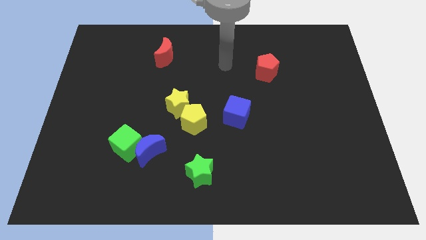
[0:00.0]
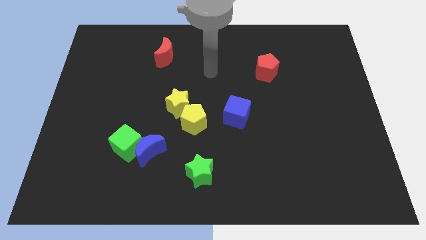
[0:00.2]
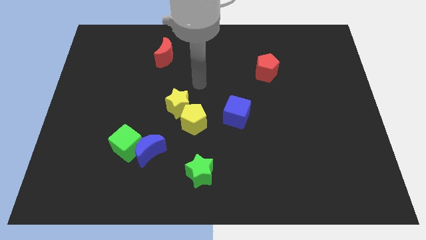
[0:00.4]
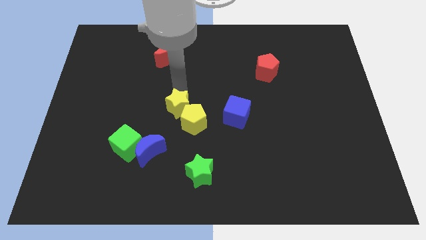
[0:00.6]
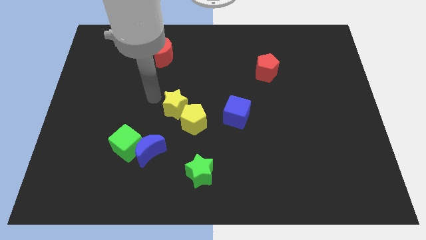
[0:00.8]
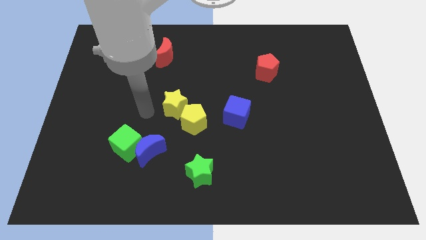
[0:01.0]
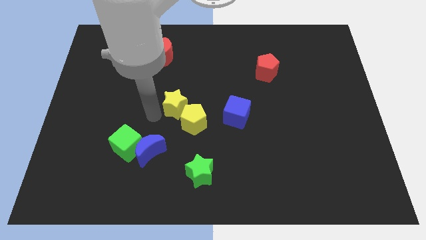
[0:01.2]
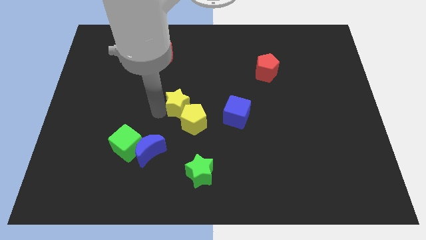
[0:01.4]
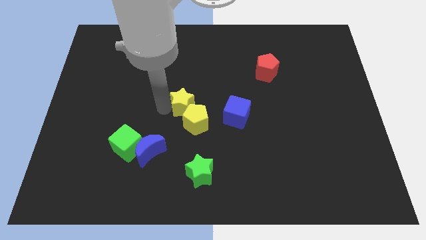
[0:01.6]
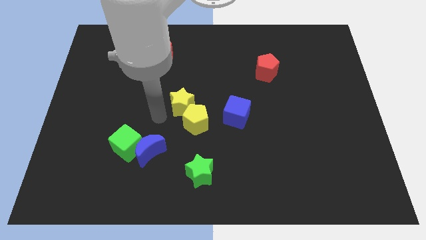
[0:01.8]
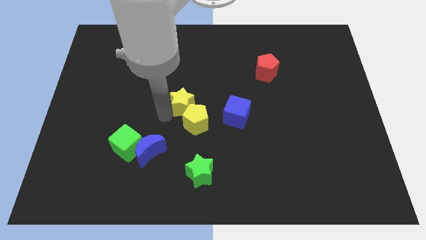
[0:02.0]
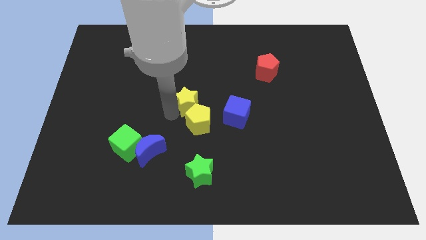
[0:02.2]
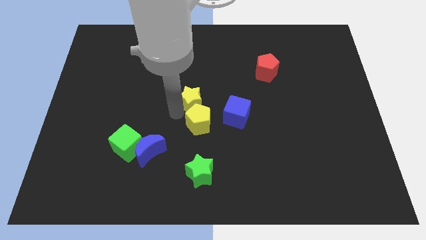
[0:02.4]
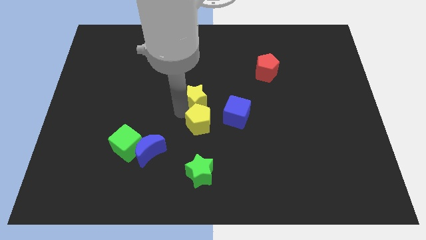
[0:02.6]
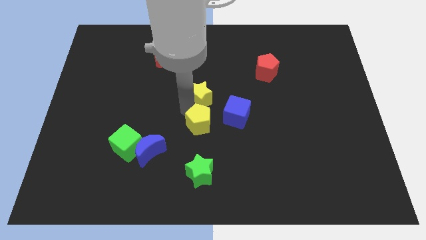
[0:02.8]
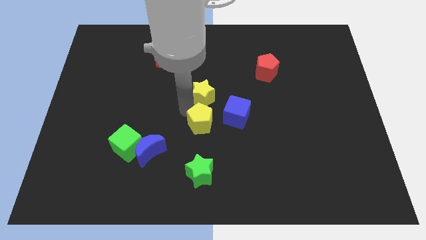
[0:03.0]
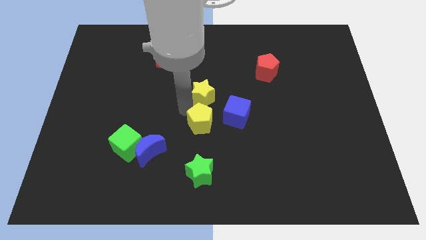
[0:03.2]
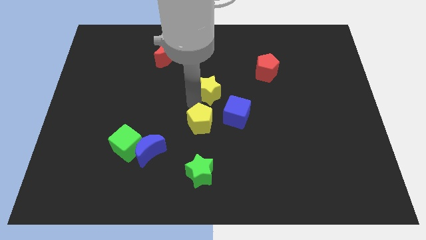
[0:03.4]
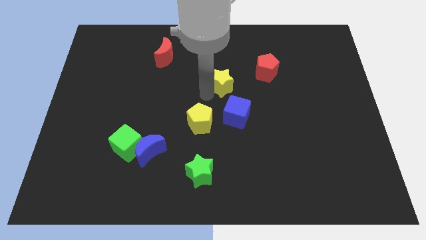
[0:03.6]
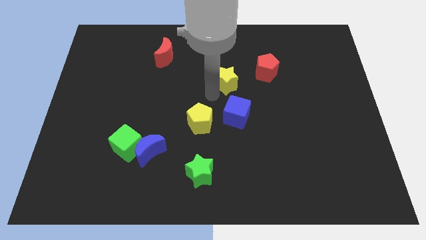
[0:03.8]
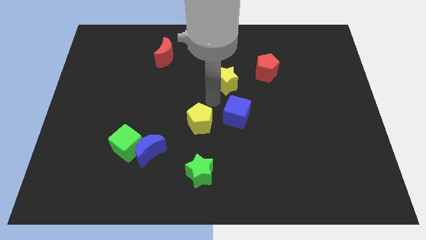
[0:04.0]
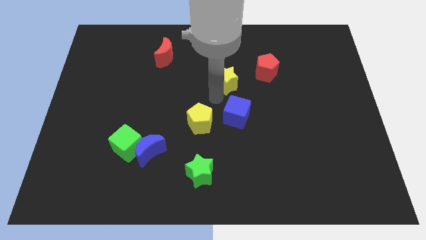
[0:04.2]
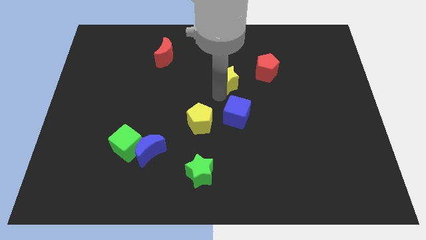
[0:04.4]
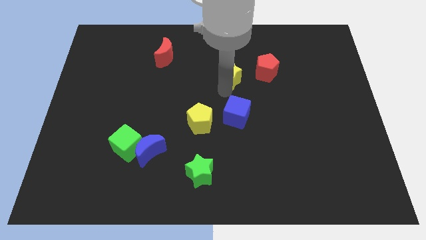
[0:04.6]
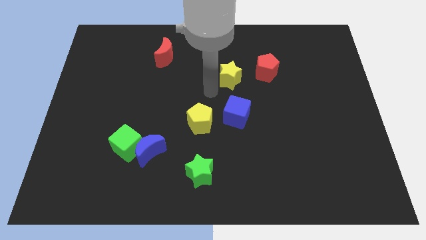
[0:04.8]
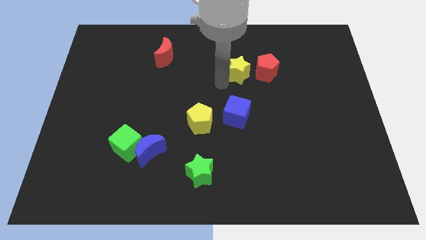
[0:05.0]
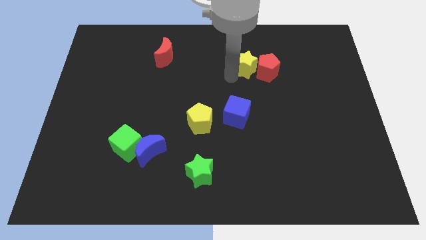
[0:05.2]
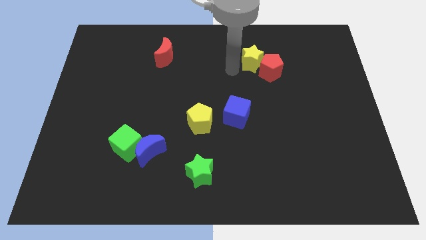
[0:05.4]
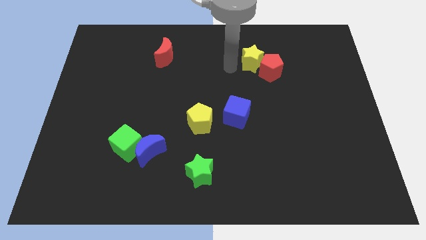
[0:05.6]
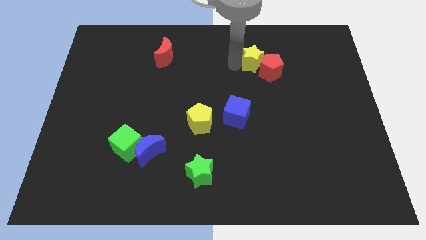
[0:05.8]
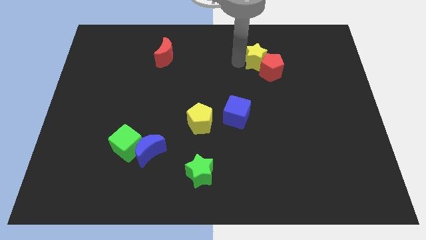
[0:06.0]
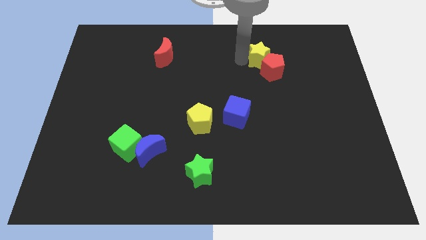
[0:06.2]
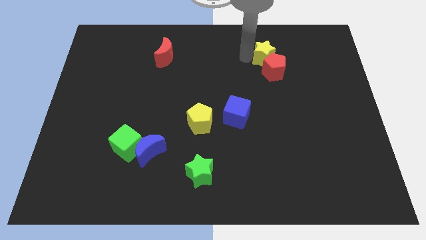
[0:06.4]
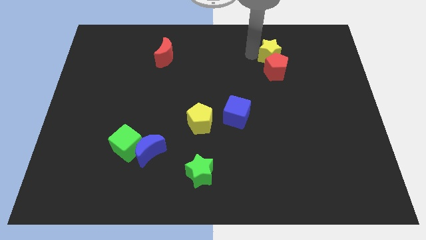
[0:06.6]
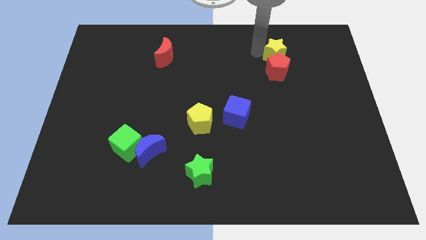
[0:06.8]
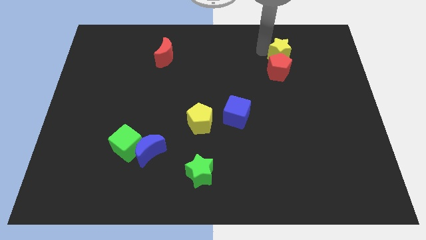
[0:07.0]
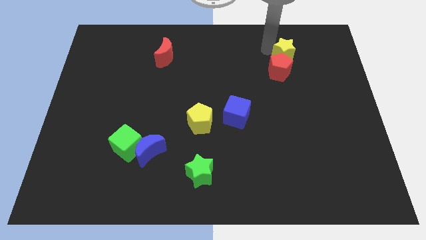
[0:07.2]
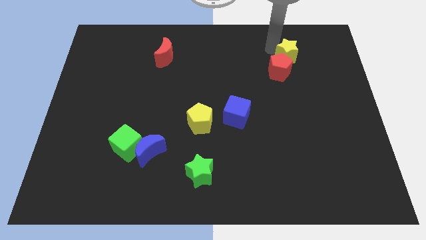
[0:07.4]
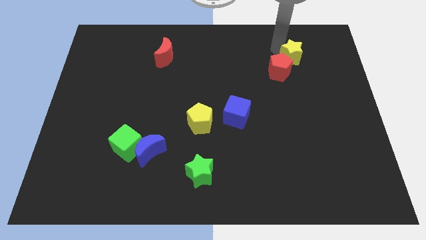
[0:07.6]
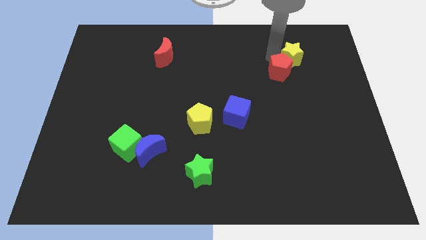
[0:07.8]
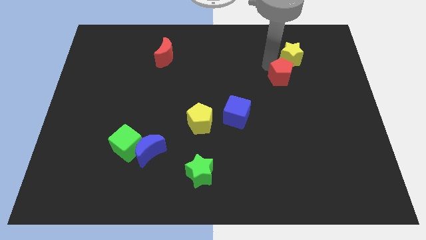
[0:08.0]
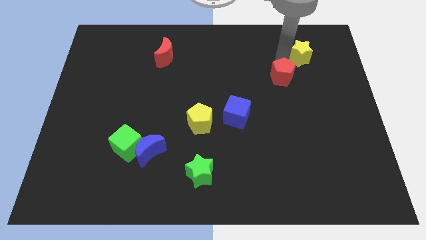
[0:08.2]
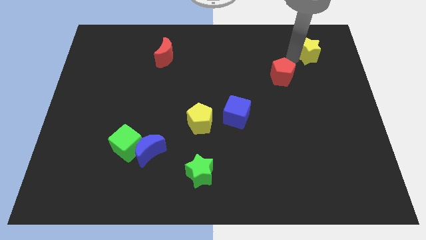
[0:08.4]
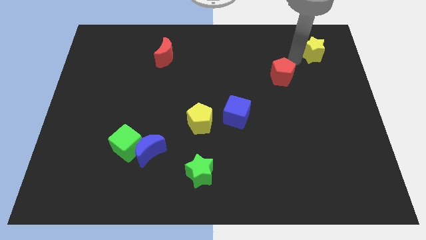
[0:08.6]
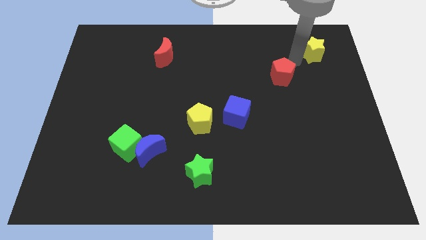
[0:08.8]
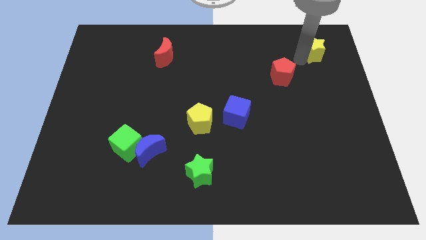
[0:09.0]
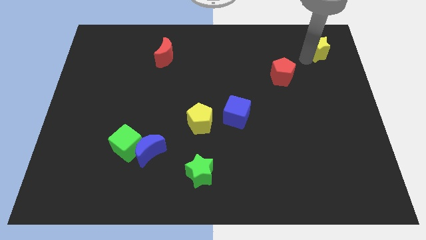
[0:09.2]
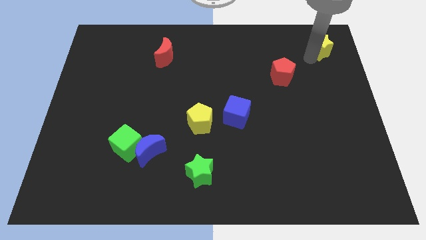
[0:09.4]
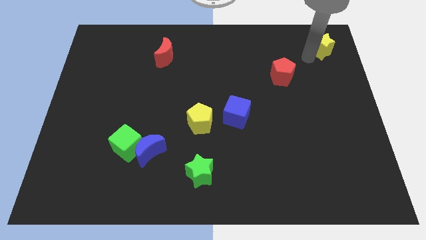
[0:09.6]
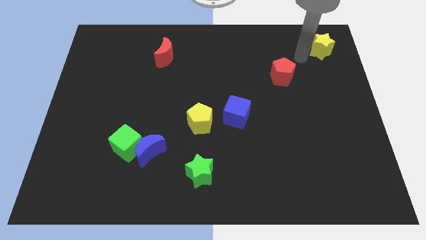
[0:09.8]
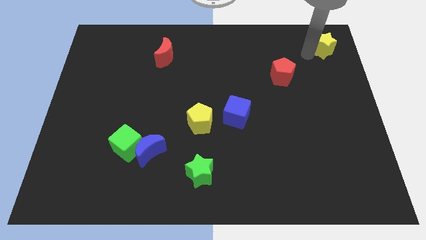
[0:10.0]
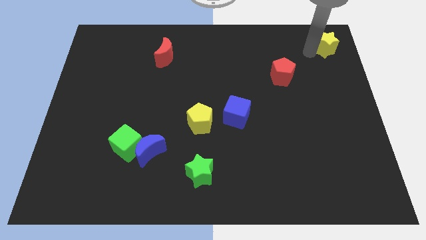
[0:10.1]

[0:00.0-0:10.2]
put the yellow star to the top right corner

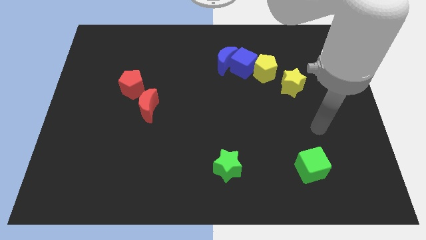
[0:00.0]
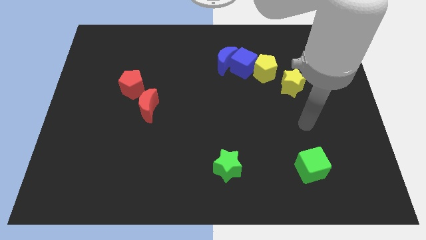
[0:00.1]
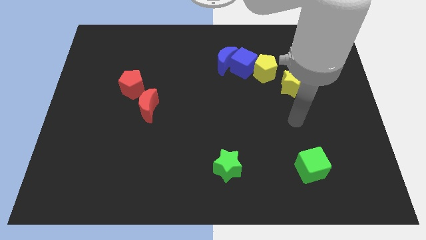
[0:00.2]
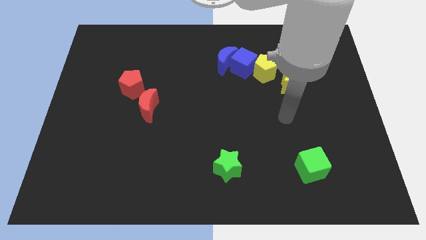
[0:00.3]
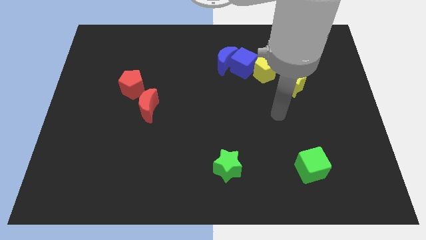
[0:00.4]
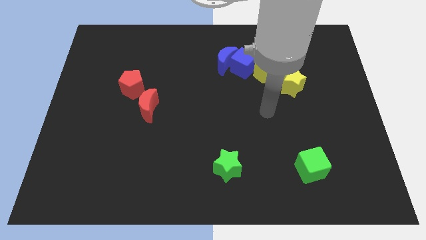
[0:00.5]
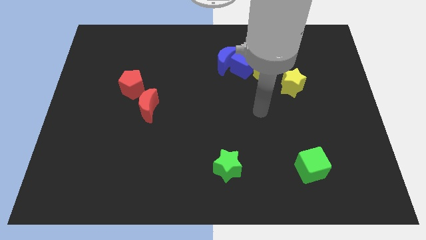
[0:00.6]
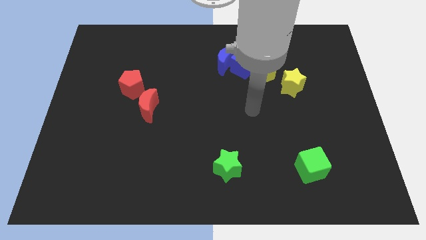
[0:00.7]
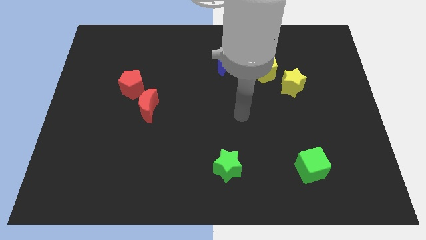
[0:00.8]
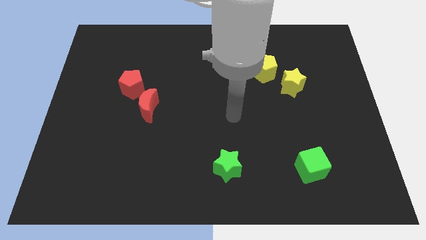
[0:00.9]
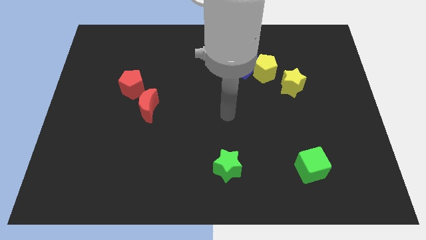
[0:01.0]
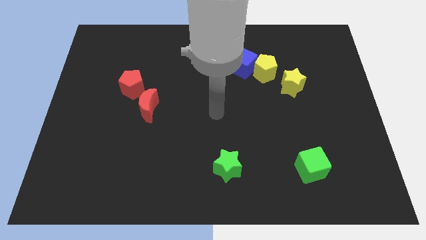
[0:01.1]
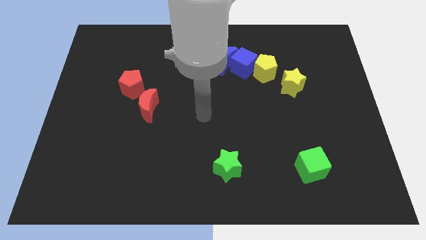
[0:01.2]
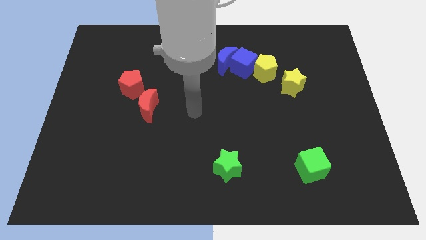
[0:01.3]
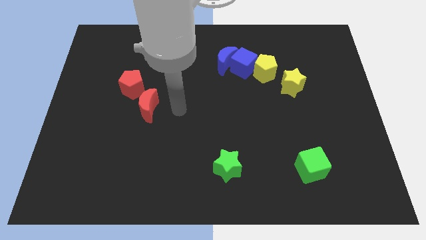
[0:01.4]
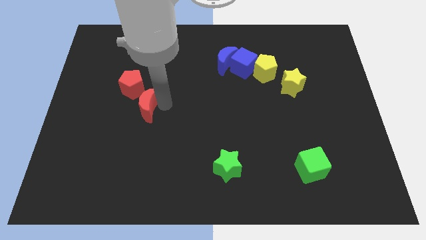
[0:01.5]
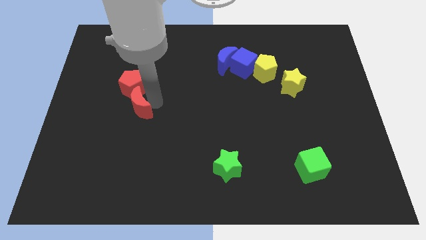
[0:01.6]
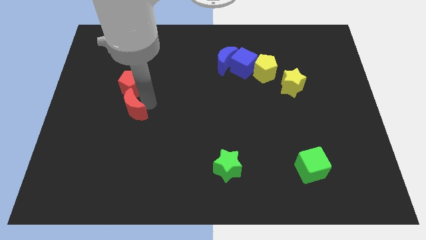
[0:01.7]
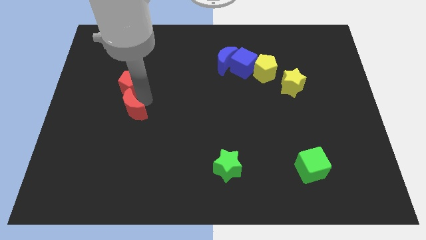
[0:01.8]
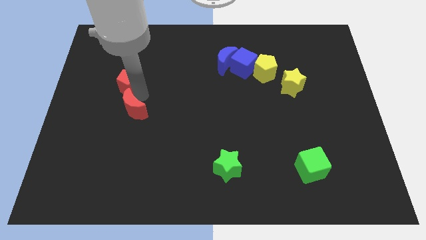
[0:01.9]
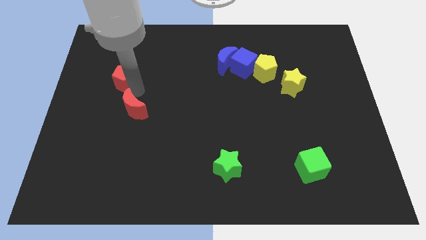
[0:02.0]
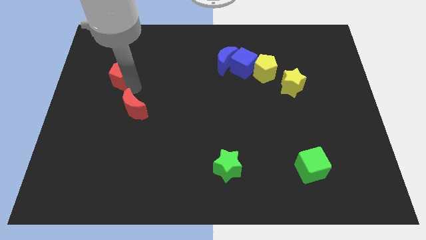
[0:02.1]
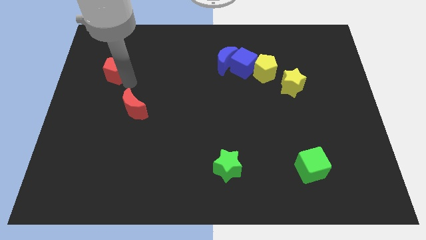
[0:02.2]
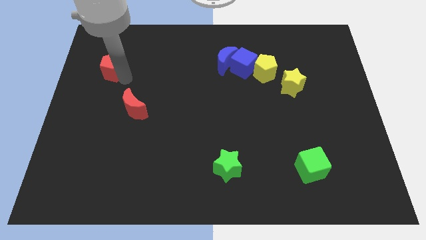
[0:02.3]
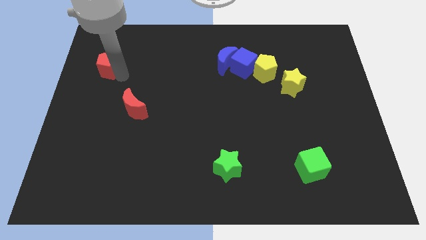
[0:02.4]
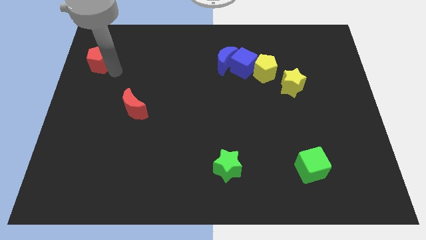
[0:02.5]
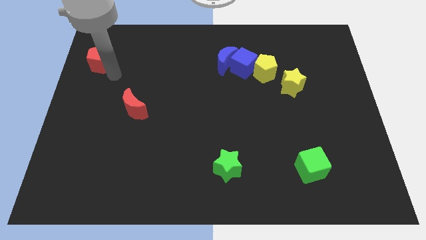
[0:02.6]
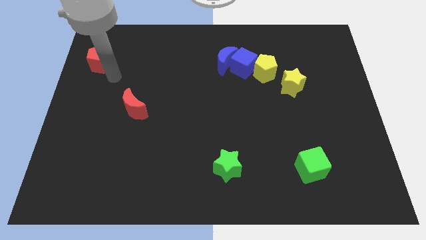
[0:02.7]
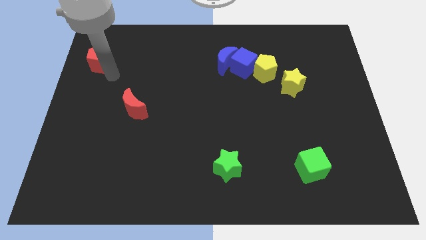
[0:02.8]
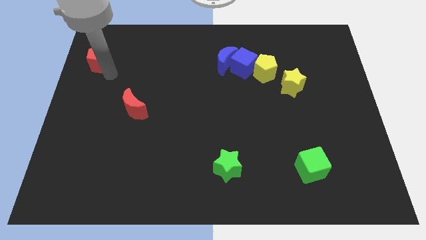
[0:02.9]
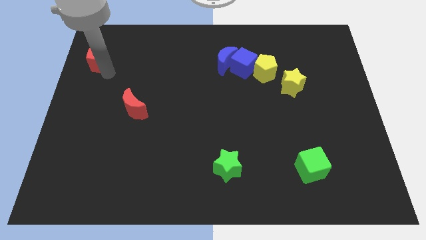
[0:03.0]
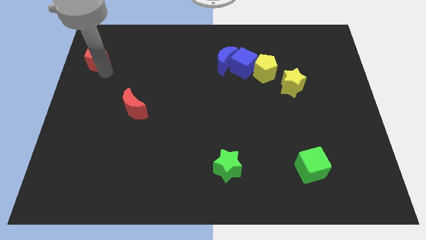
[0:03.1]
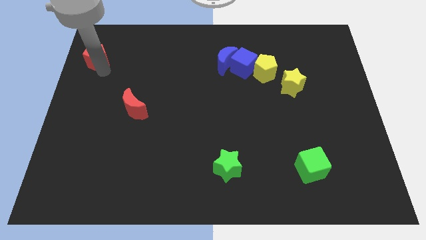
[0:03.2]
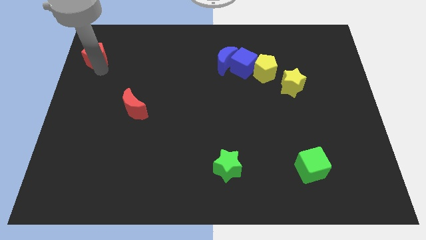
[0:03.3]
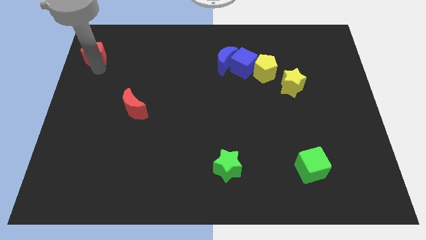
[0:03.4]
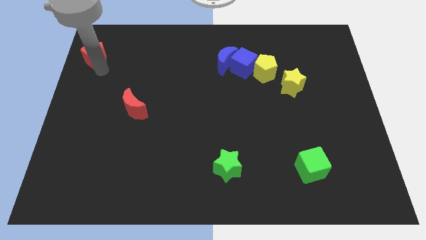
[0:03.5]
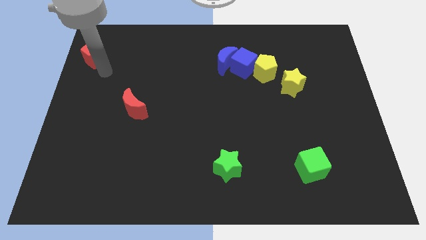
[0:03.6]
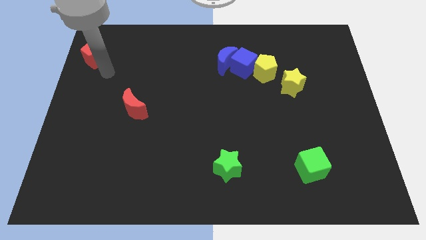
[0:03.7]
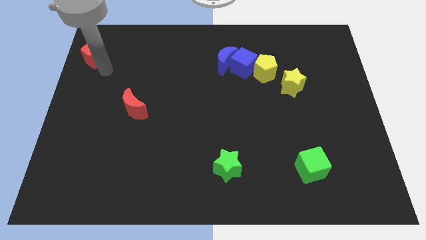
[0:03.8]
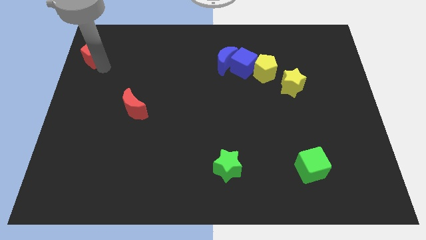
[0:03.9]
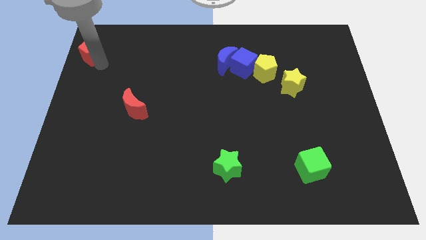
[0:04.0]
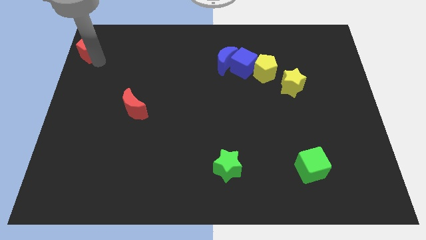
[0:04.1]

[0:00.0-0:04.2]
move the red pentagon to the top left corner
